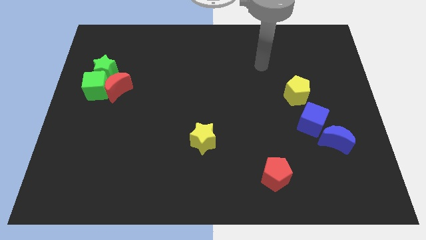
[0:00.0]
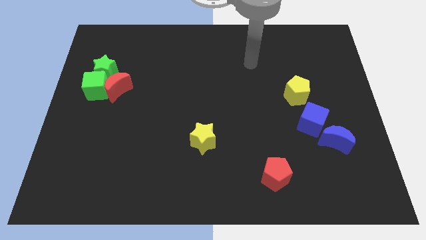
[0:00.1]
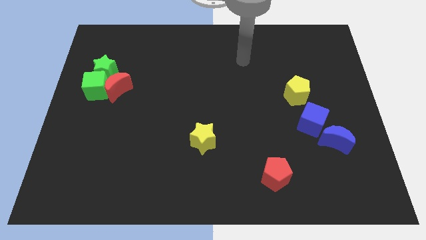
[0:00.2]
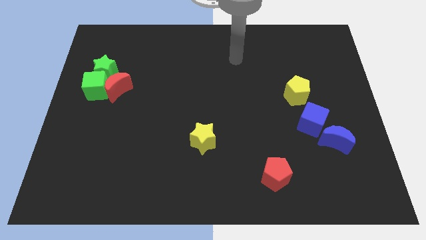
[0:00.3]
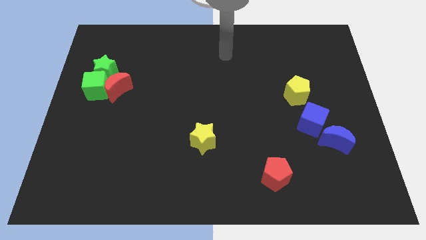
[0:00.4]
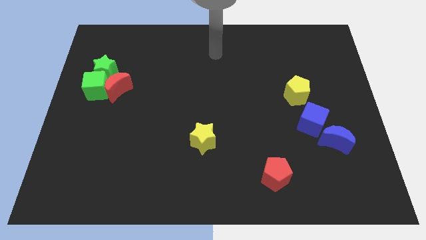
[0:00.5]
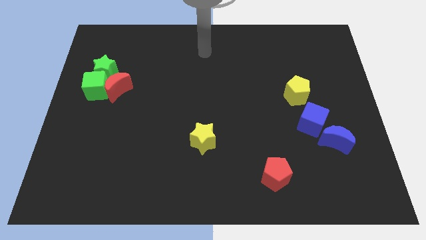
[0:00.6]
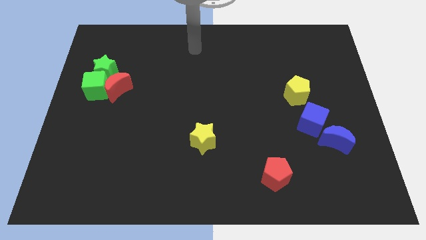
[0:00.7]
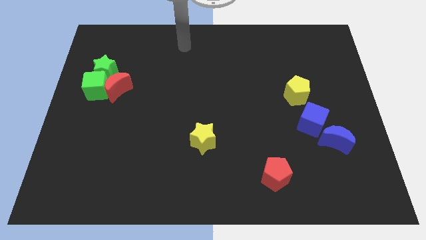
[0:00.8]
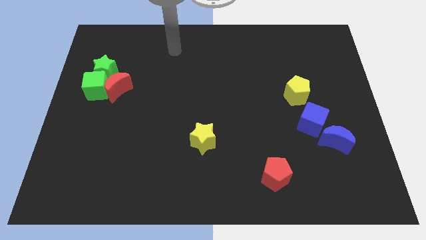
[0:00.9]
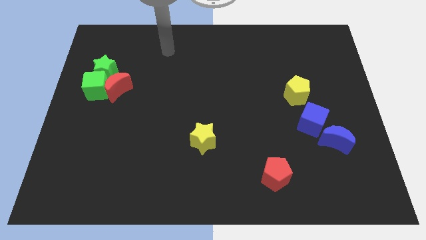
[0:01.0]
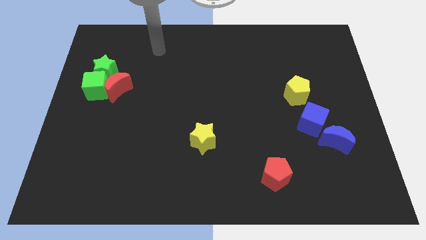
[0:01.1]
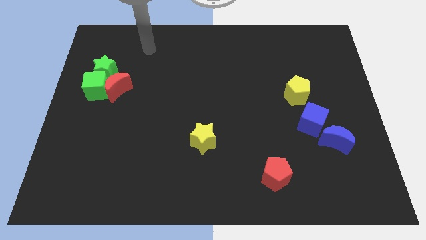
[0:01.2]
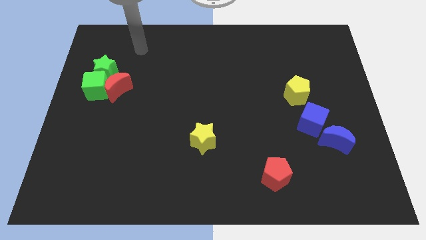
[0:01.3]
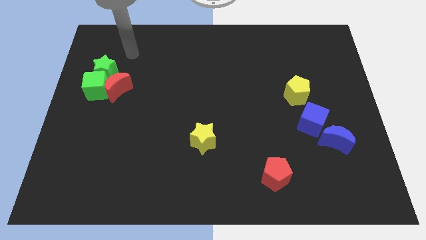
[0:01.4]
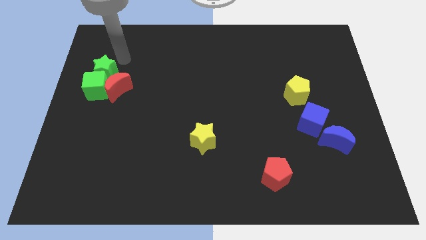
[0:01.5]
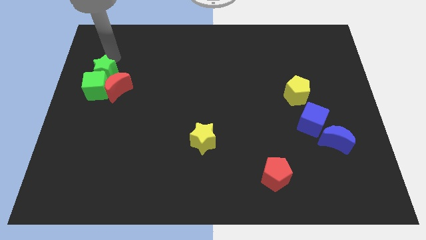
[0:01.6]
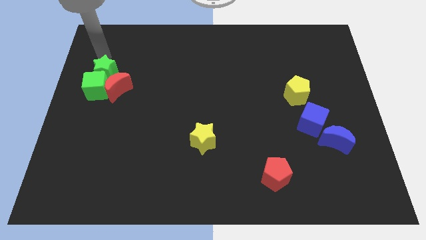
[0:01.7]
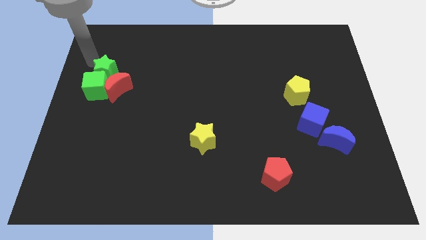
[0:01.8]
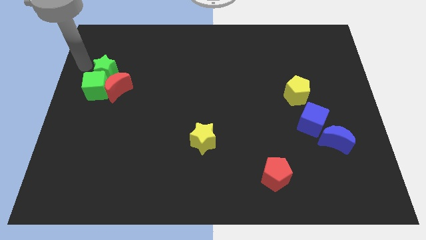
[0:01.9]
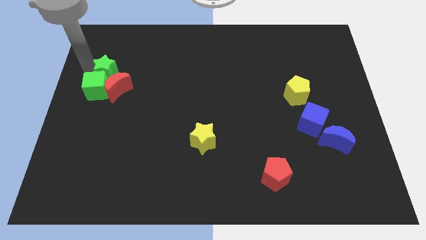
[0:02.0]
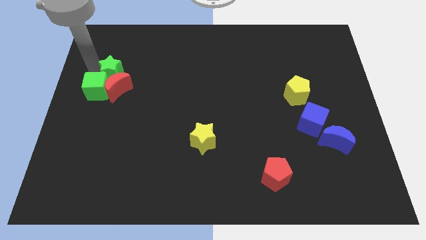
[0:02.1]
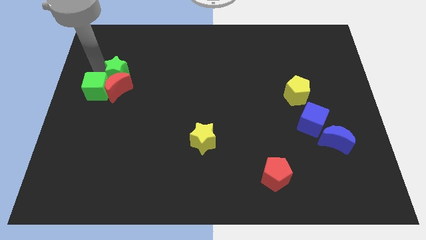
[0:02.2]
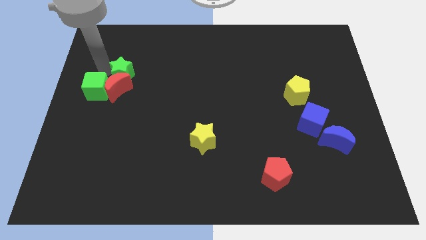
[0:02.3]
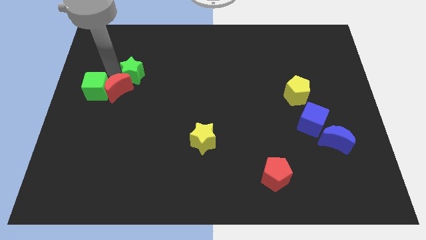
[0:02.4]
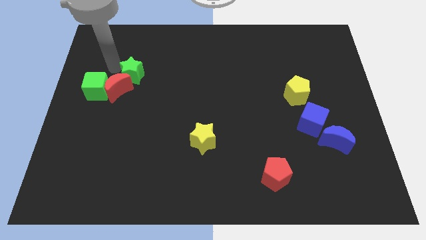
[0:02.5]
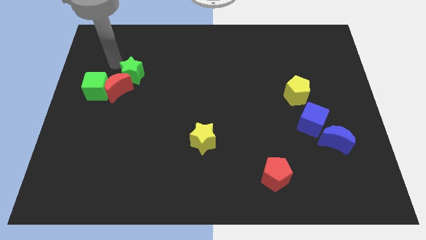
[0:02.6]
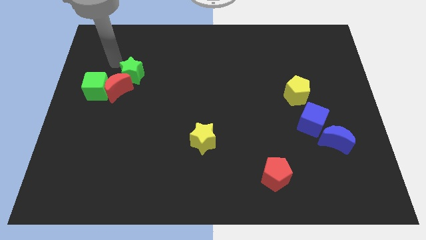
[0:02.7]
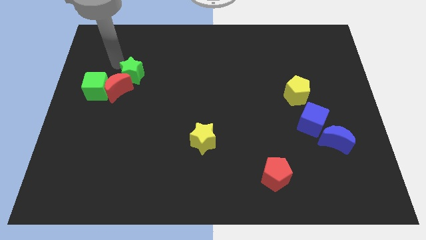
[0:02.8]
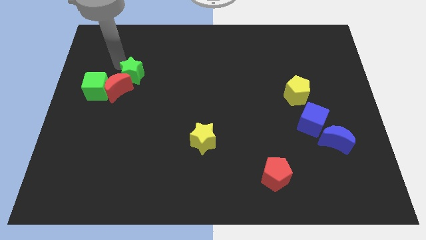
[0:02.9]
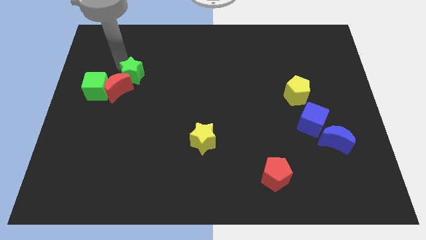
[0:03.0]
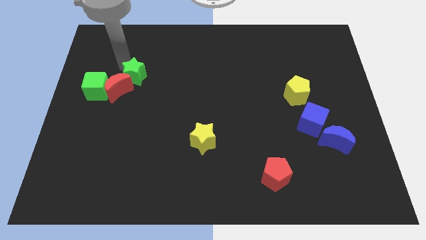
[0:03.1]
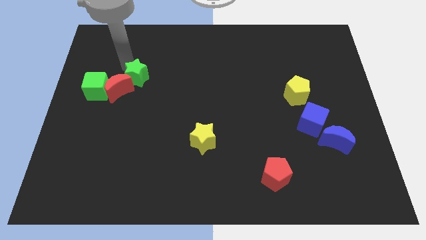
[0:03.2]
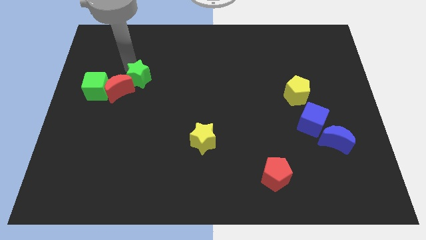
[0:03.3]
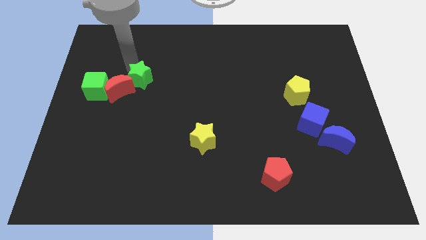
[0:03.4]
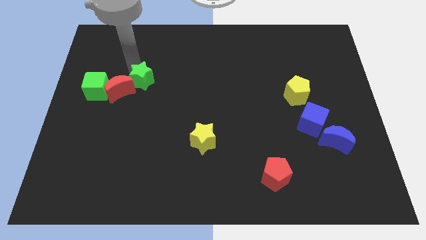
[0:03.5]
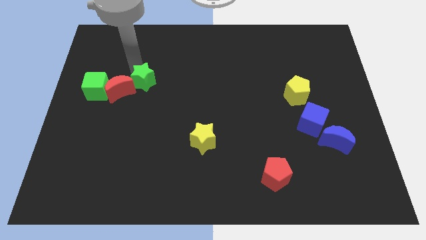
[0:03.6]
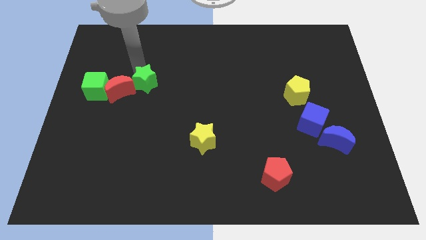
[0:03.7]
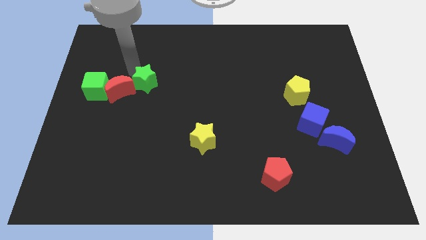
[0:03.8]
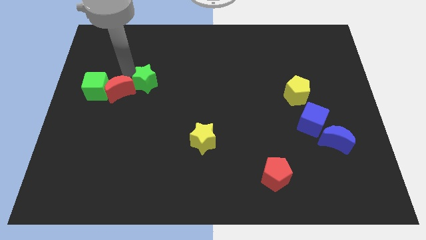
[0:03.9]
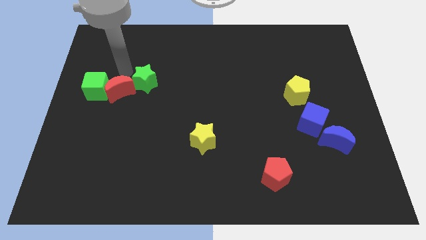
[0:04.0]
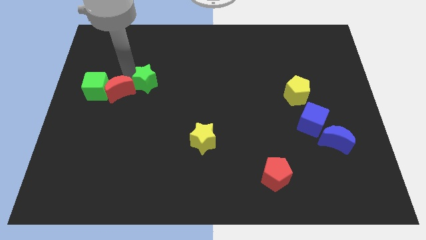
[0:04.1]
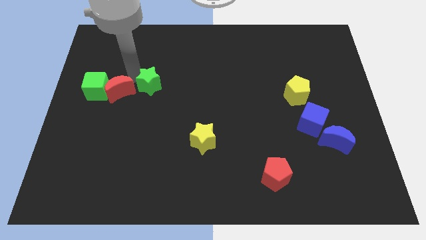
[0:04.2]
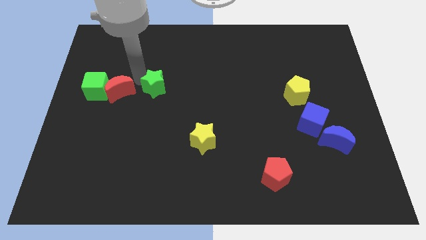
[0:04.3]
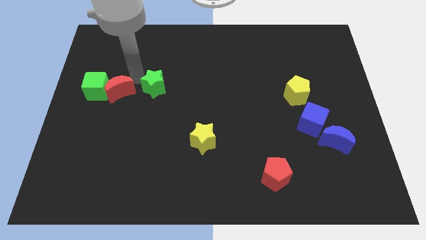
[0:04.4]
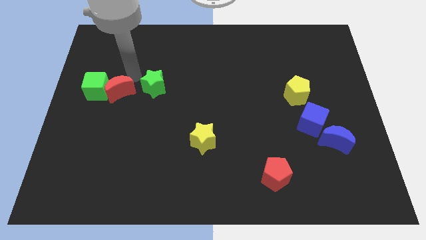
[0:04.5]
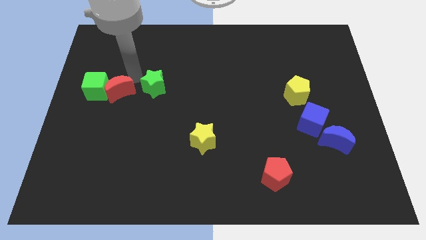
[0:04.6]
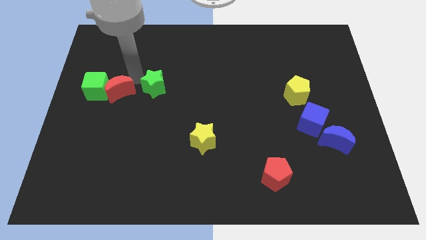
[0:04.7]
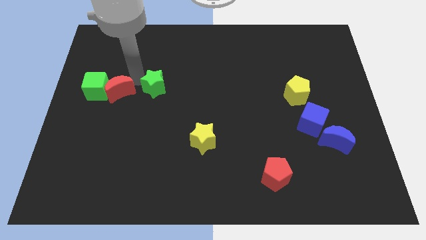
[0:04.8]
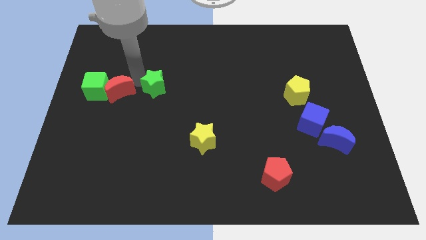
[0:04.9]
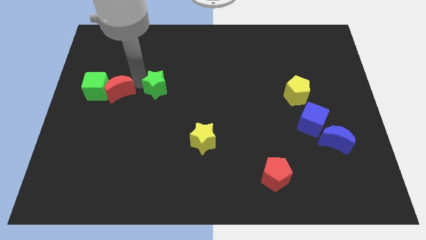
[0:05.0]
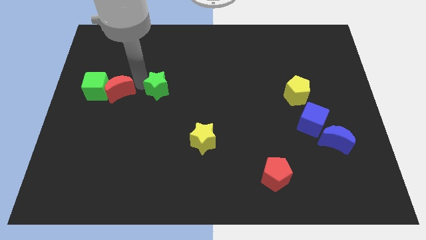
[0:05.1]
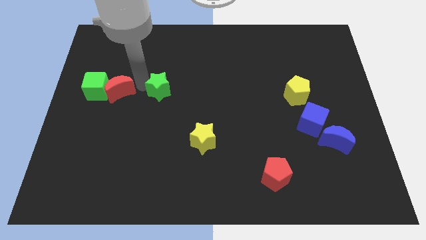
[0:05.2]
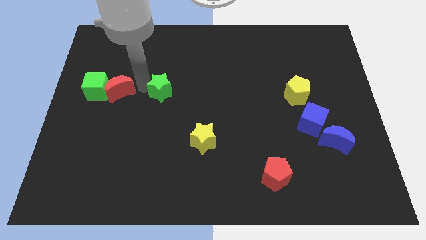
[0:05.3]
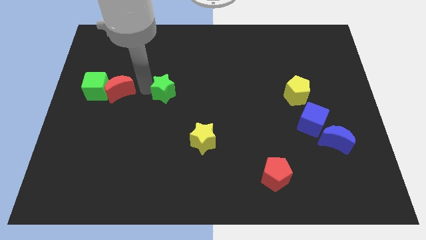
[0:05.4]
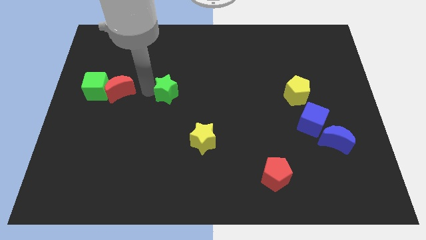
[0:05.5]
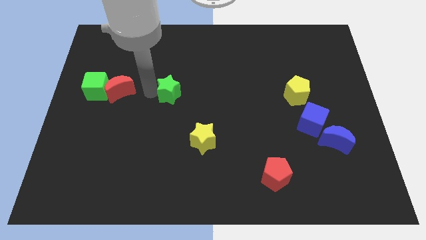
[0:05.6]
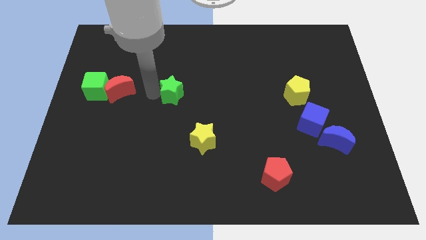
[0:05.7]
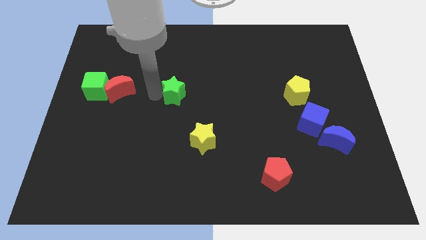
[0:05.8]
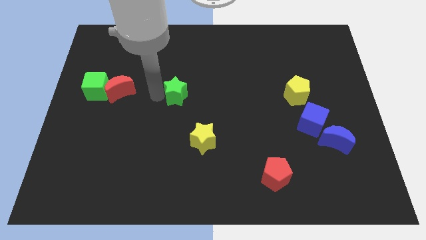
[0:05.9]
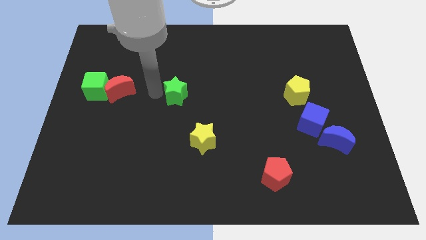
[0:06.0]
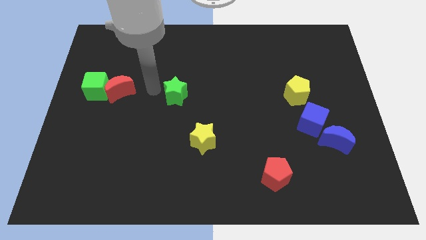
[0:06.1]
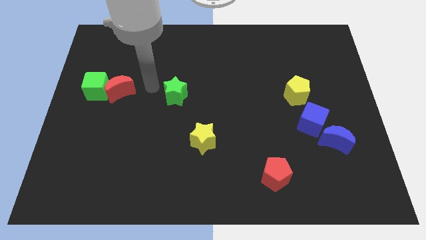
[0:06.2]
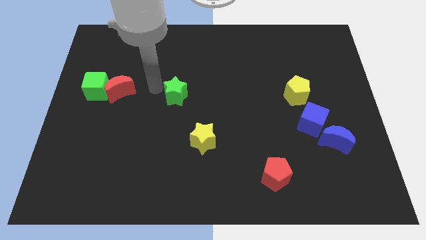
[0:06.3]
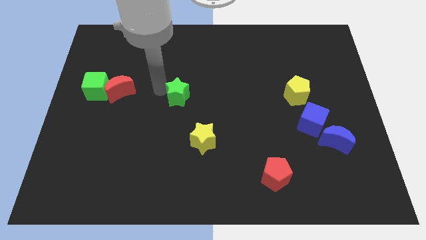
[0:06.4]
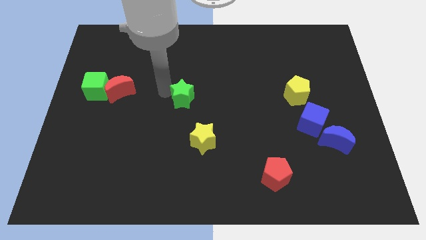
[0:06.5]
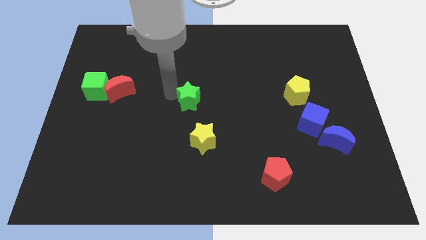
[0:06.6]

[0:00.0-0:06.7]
slide the green star above the yellow star

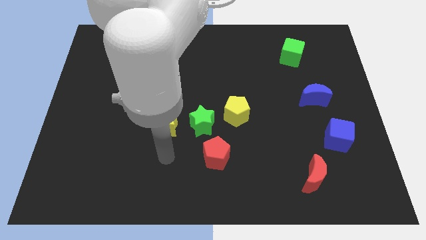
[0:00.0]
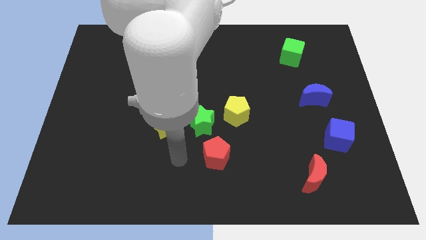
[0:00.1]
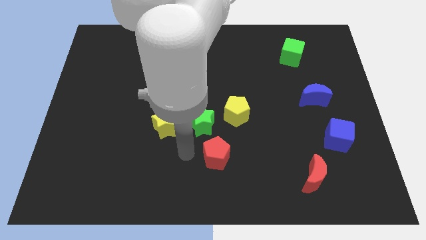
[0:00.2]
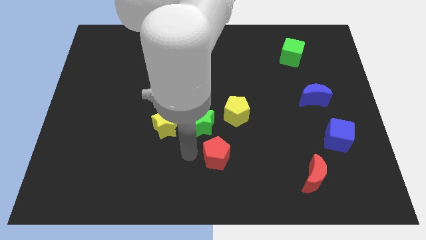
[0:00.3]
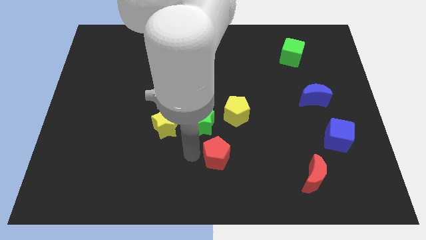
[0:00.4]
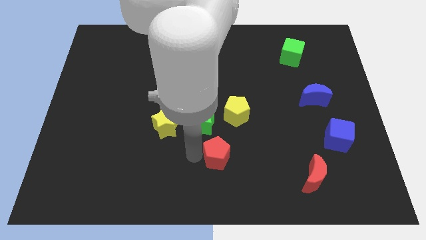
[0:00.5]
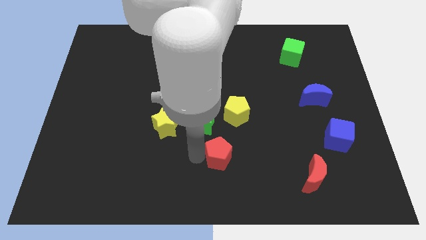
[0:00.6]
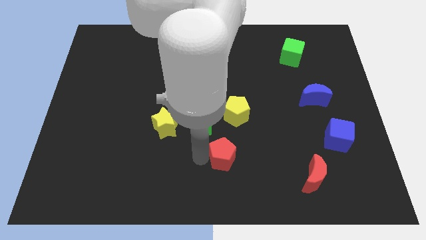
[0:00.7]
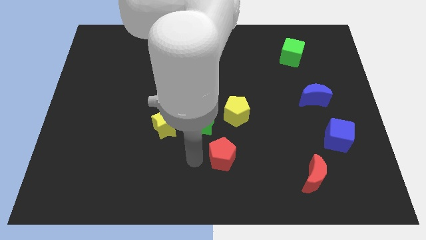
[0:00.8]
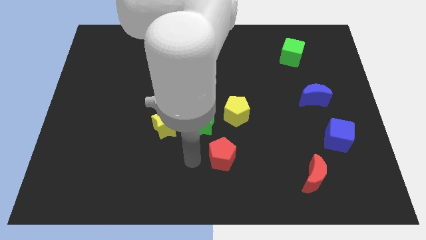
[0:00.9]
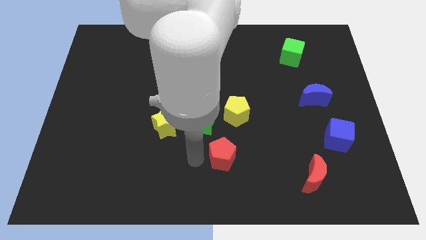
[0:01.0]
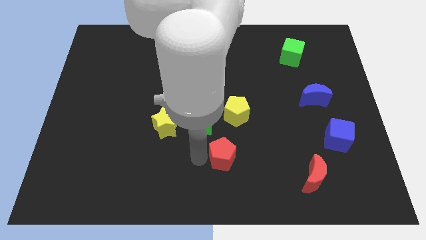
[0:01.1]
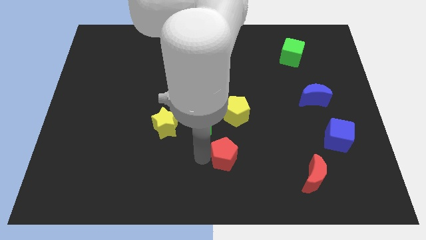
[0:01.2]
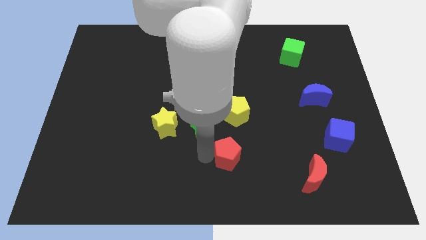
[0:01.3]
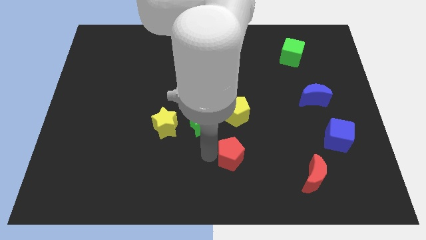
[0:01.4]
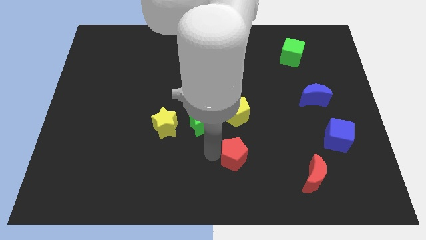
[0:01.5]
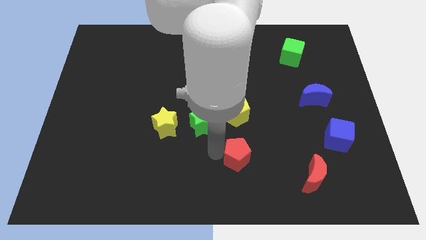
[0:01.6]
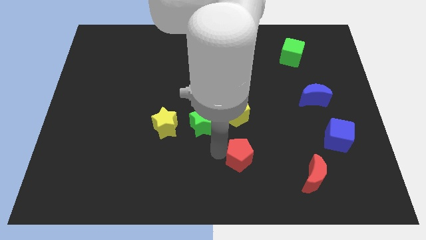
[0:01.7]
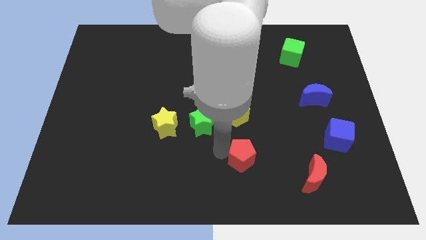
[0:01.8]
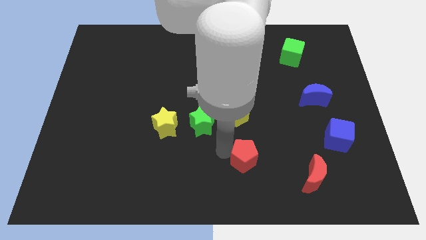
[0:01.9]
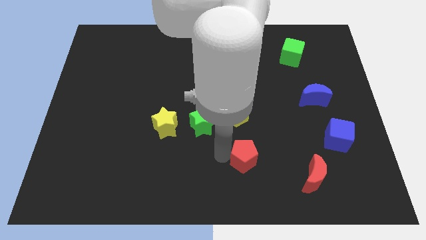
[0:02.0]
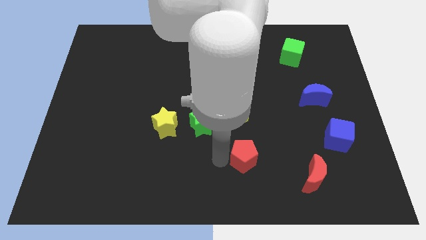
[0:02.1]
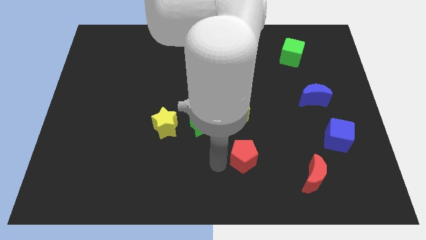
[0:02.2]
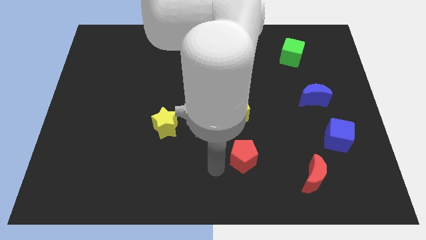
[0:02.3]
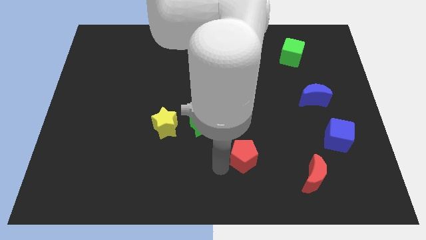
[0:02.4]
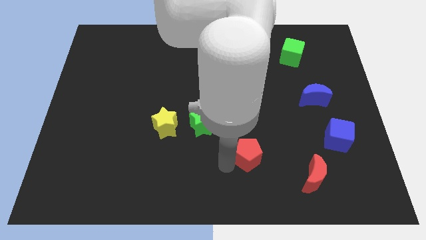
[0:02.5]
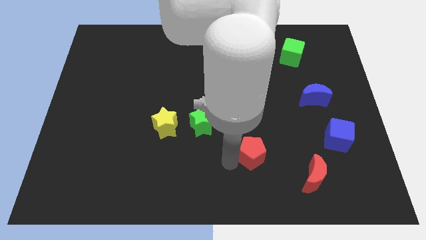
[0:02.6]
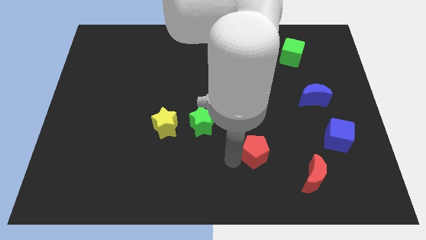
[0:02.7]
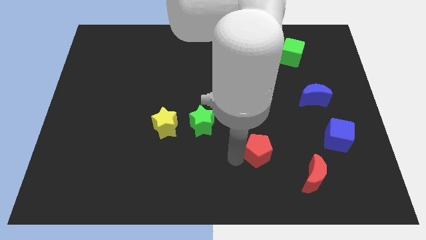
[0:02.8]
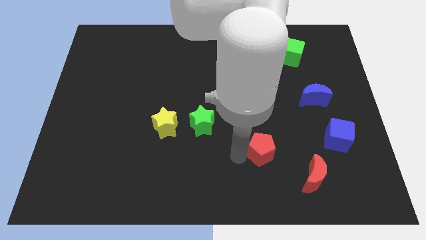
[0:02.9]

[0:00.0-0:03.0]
push the red pentagon to the top left side of the red moon
